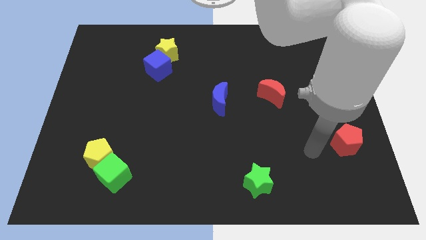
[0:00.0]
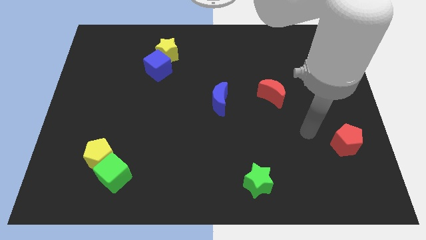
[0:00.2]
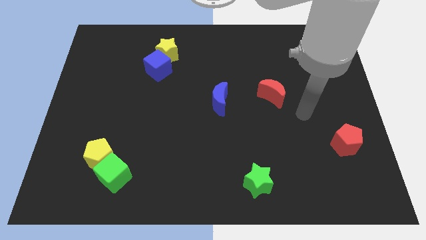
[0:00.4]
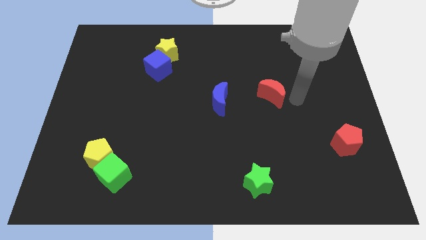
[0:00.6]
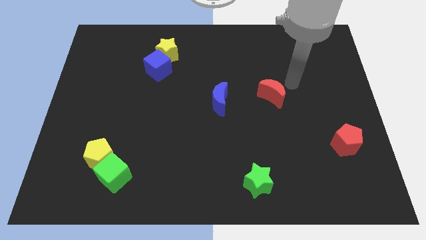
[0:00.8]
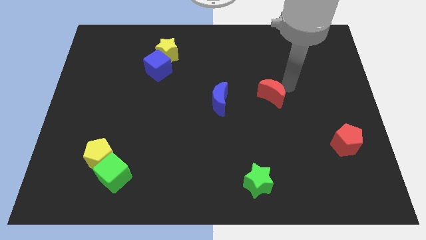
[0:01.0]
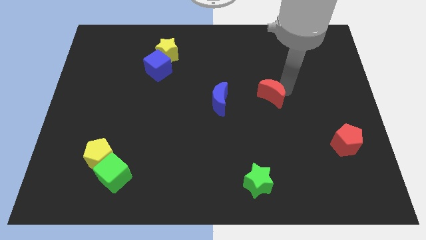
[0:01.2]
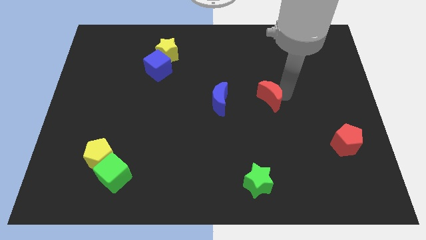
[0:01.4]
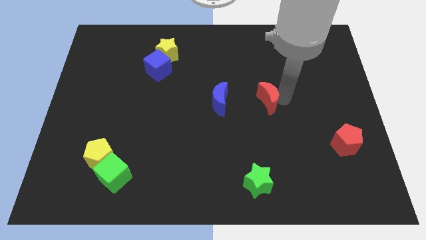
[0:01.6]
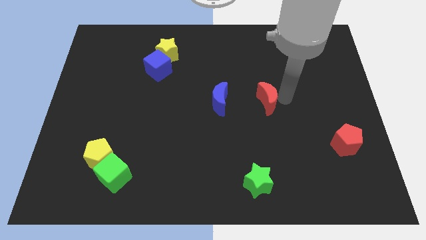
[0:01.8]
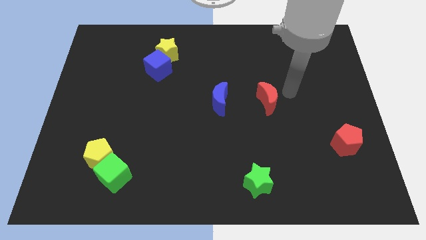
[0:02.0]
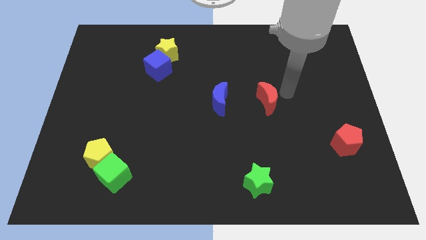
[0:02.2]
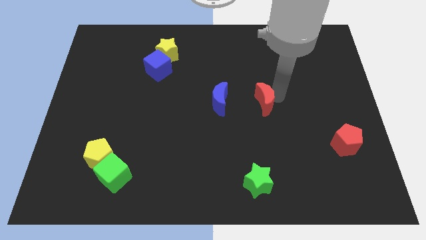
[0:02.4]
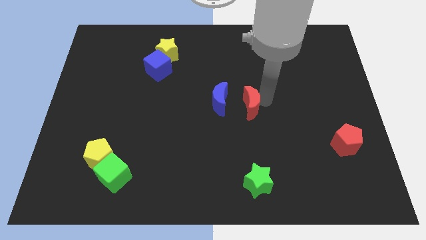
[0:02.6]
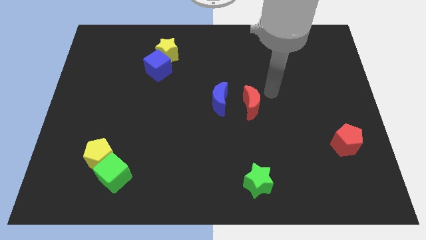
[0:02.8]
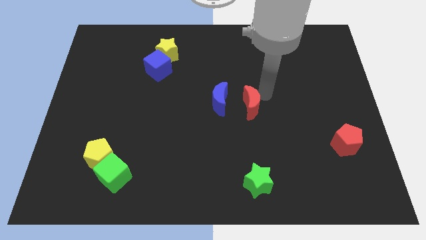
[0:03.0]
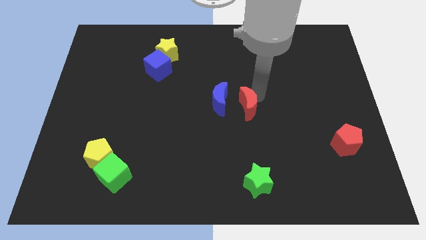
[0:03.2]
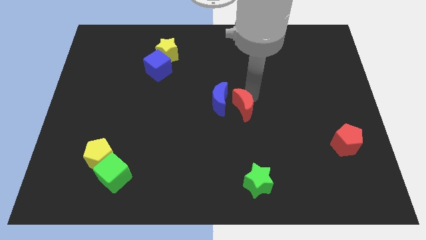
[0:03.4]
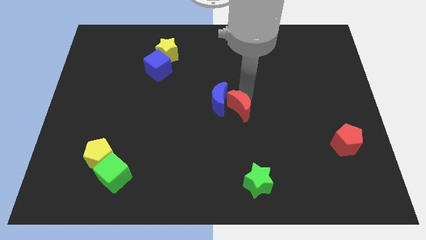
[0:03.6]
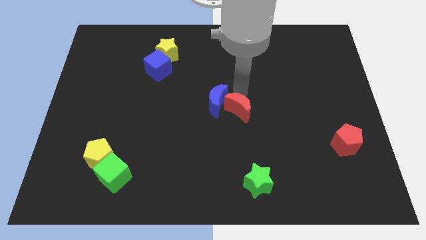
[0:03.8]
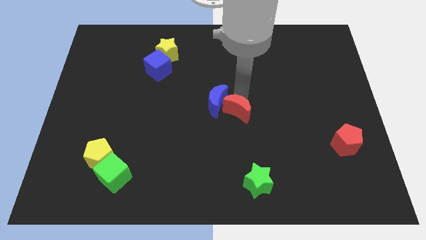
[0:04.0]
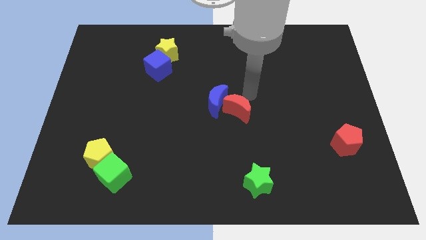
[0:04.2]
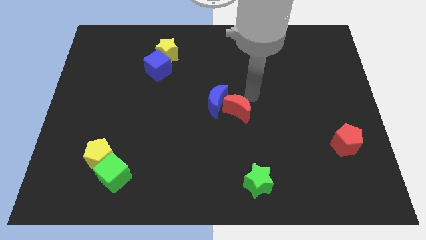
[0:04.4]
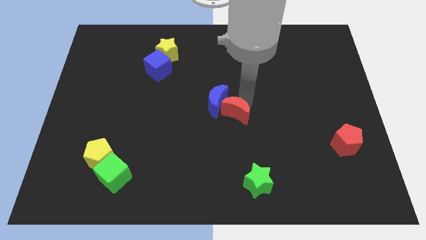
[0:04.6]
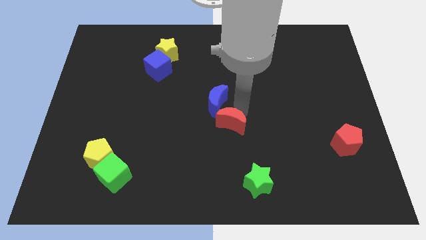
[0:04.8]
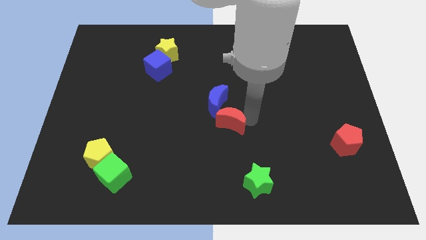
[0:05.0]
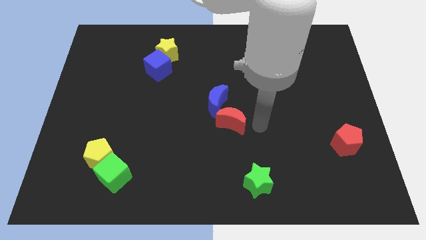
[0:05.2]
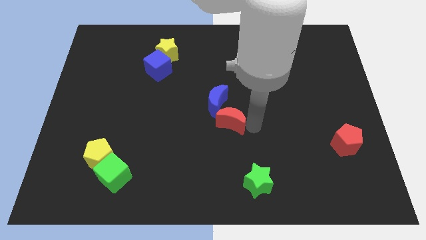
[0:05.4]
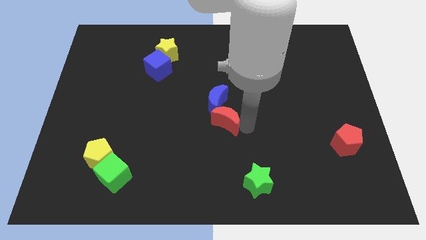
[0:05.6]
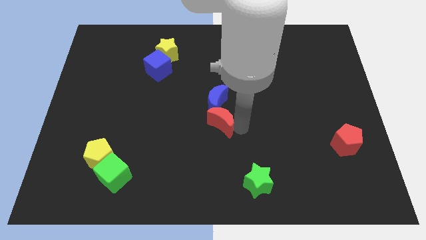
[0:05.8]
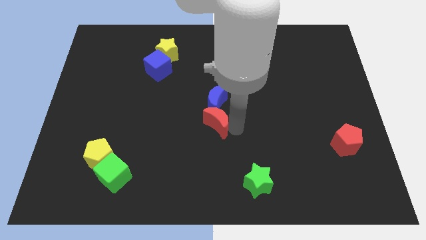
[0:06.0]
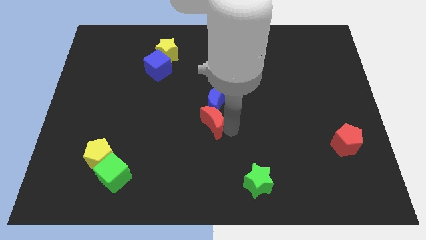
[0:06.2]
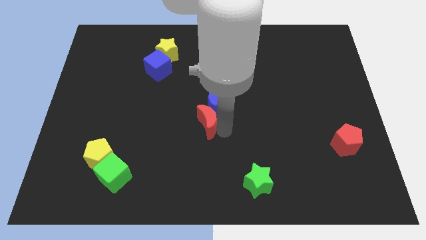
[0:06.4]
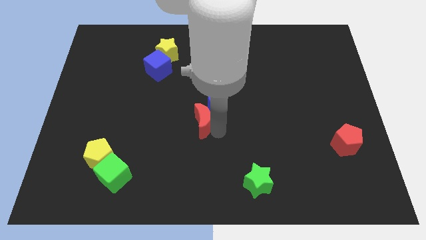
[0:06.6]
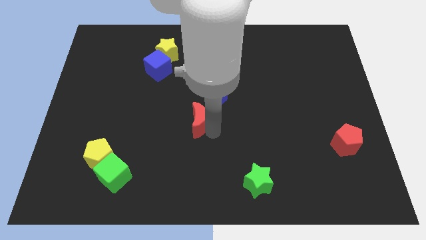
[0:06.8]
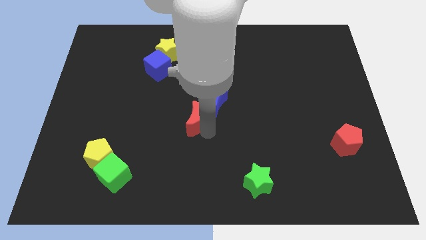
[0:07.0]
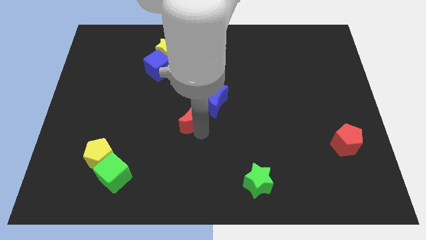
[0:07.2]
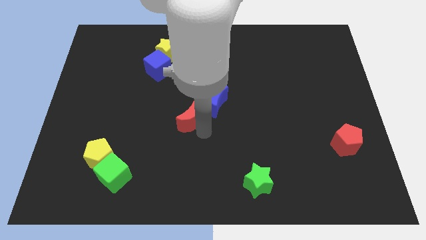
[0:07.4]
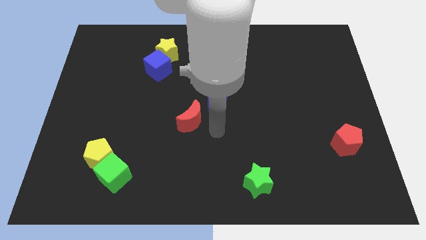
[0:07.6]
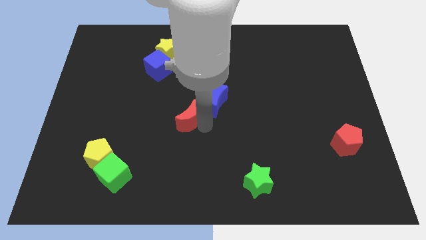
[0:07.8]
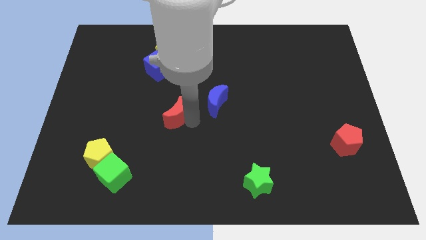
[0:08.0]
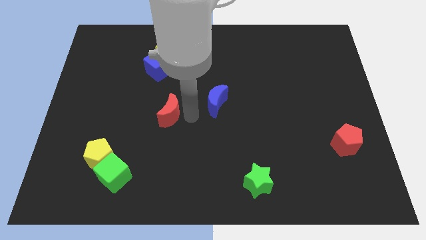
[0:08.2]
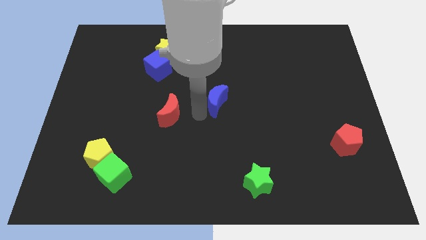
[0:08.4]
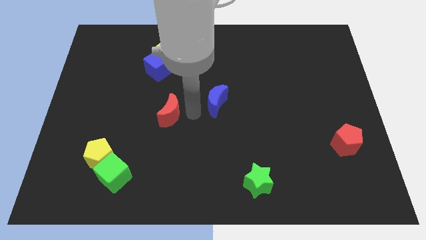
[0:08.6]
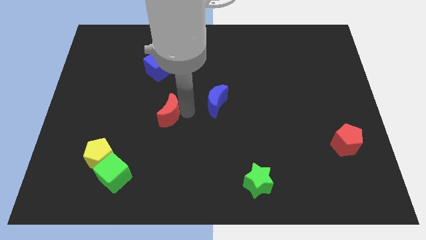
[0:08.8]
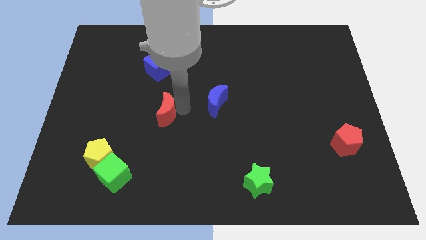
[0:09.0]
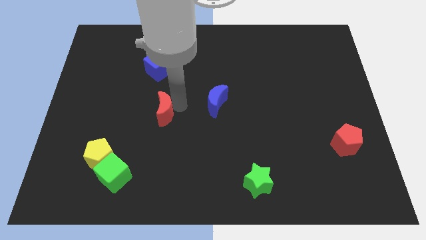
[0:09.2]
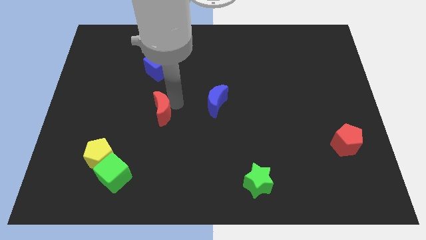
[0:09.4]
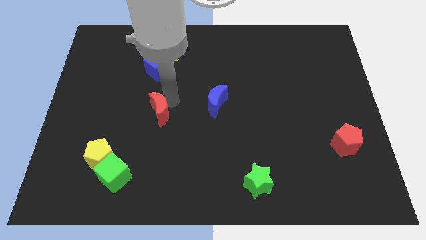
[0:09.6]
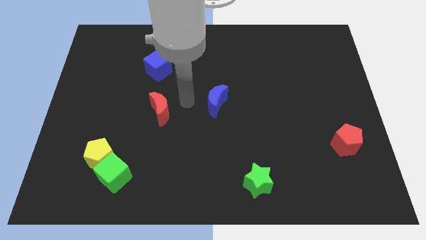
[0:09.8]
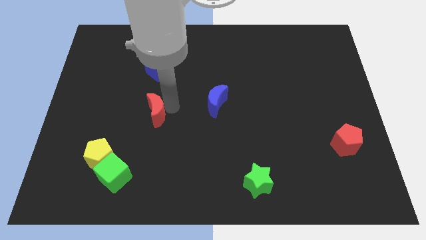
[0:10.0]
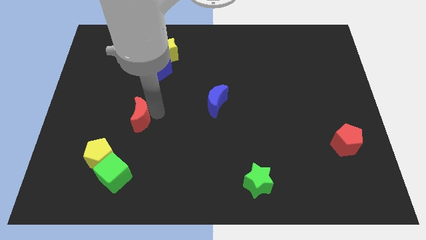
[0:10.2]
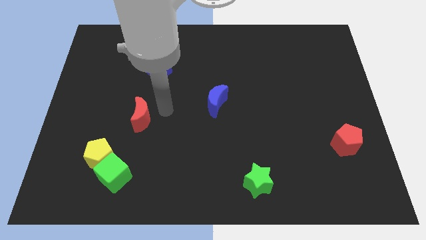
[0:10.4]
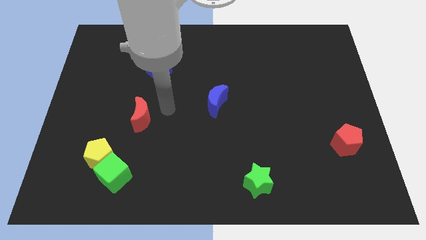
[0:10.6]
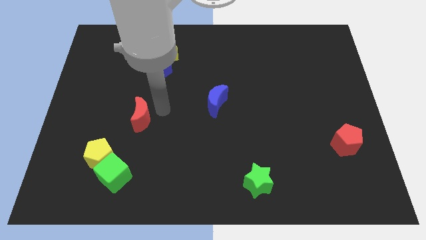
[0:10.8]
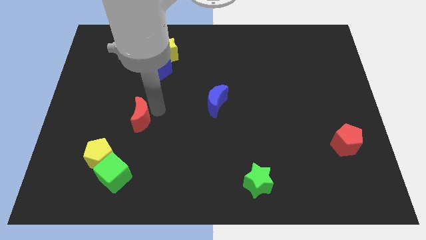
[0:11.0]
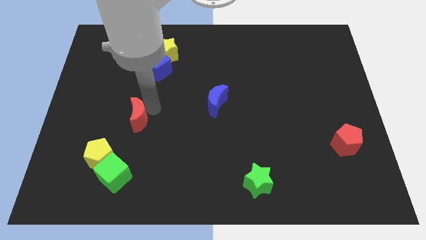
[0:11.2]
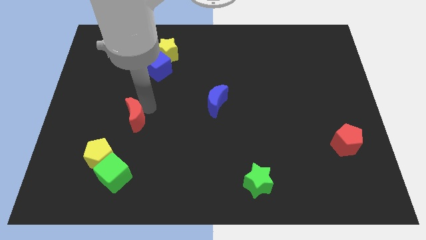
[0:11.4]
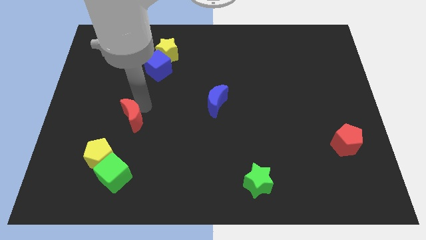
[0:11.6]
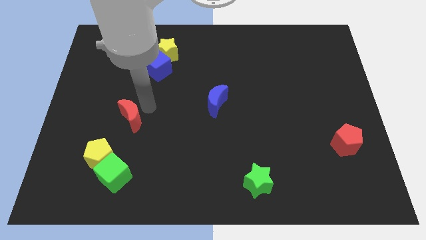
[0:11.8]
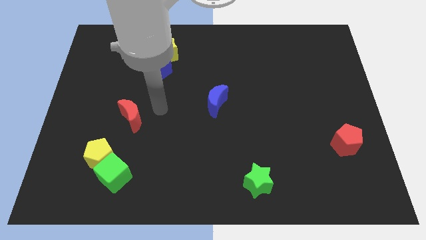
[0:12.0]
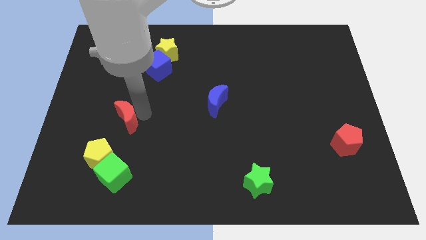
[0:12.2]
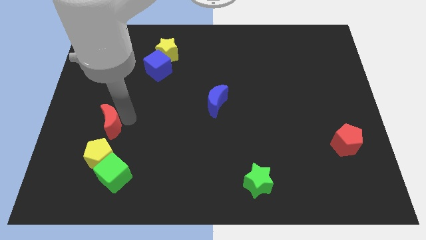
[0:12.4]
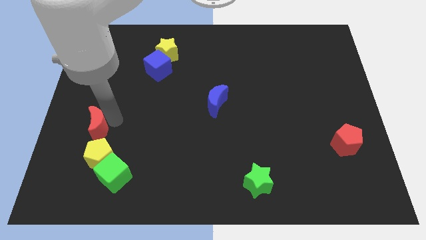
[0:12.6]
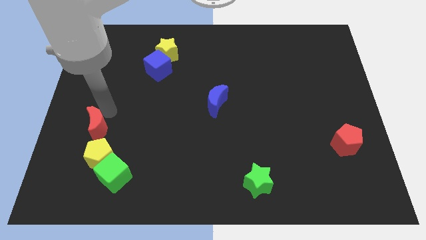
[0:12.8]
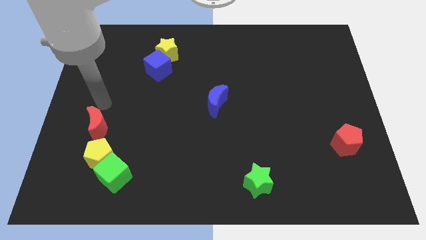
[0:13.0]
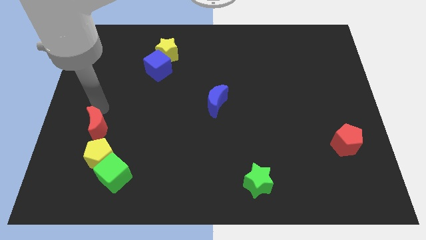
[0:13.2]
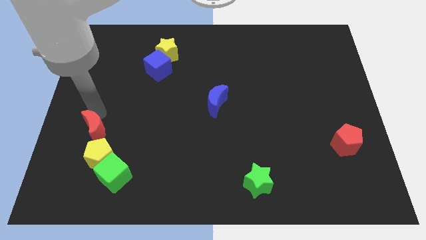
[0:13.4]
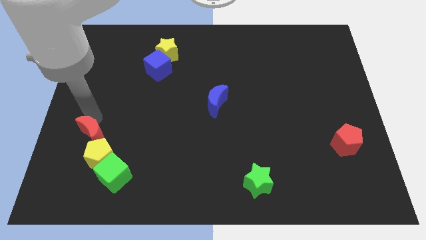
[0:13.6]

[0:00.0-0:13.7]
push the red moon to the top left side of the green cube
